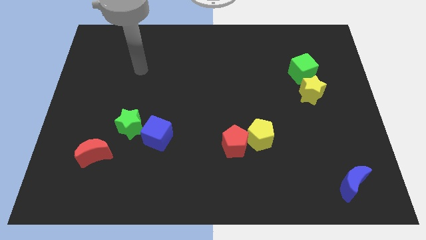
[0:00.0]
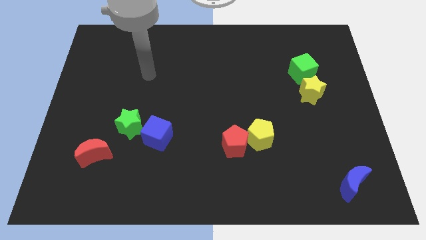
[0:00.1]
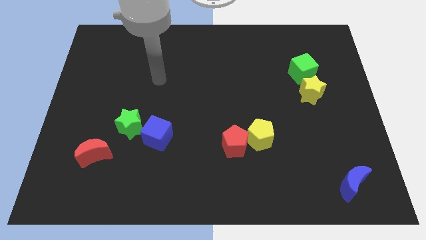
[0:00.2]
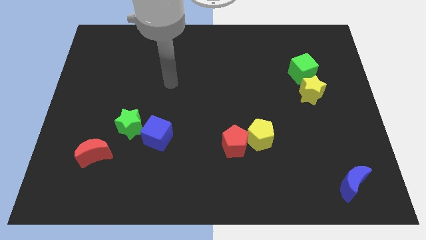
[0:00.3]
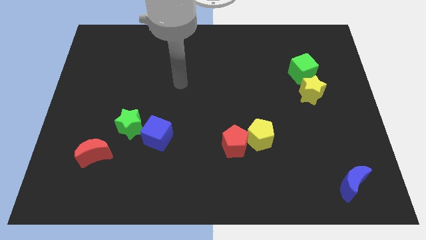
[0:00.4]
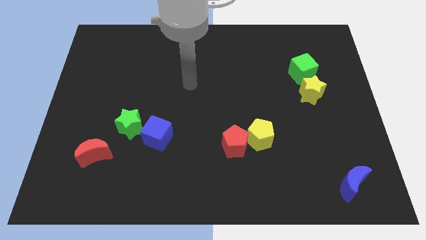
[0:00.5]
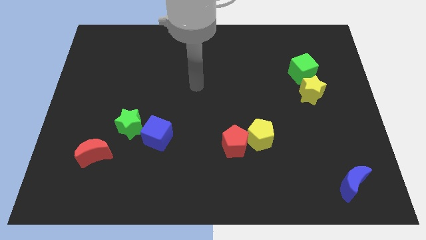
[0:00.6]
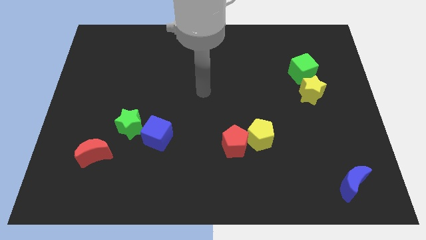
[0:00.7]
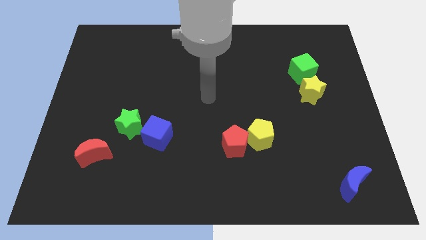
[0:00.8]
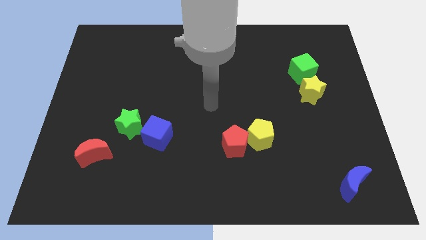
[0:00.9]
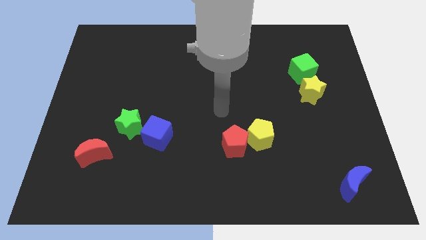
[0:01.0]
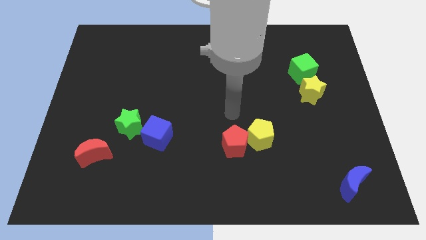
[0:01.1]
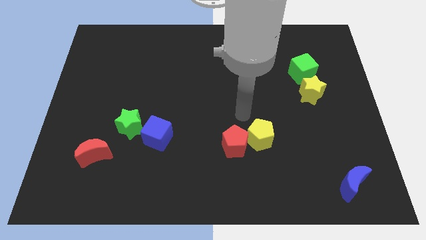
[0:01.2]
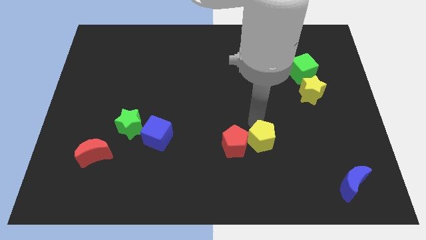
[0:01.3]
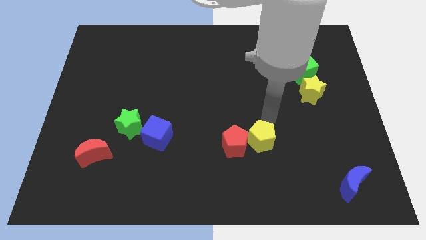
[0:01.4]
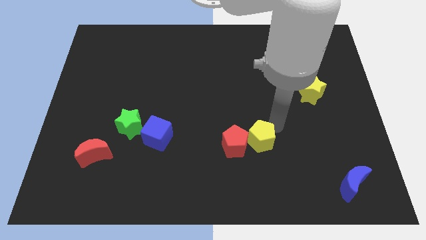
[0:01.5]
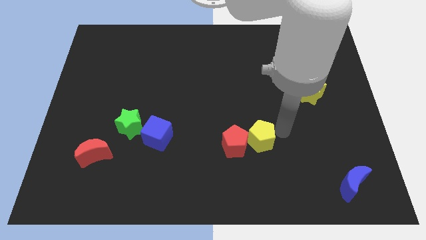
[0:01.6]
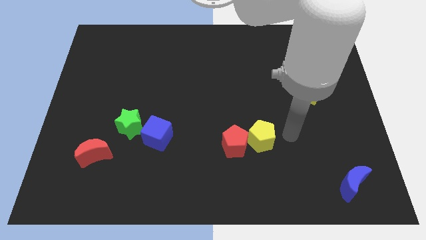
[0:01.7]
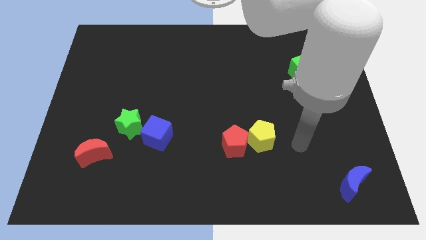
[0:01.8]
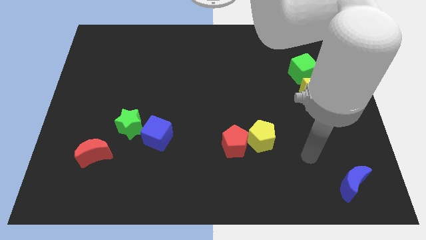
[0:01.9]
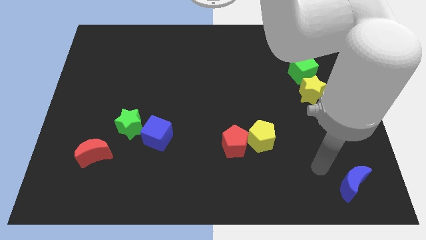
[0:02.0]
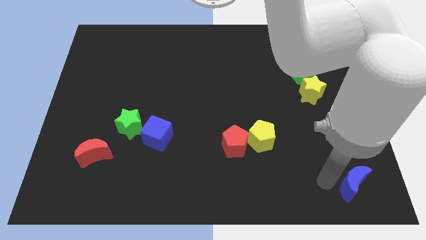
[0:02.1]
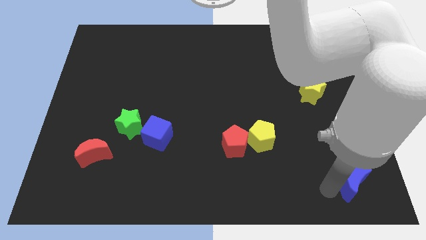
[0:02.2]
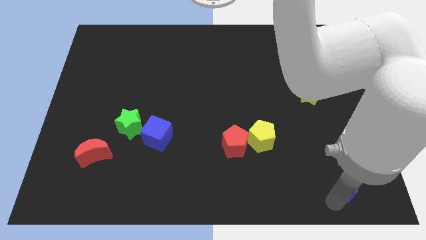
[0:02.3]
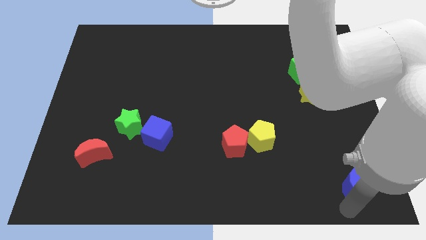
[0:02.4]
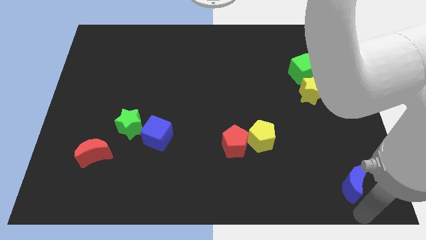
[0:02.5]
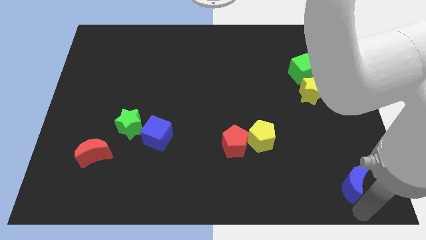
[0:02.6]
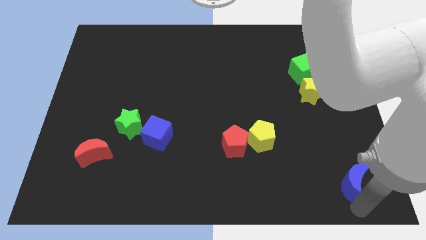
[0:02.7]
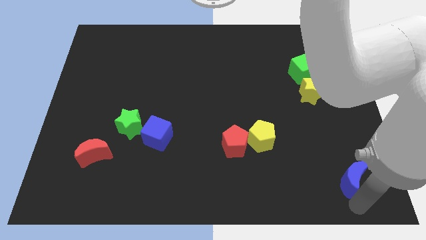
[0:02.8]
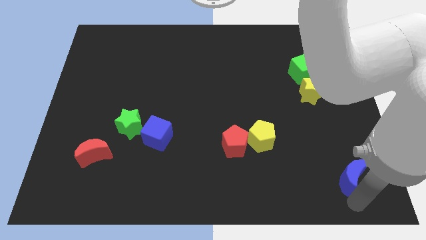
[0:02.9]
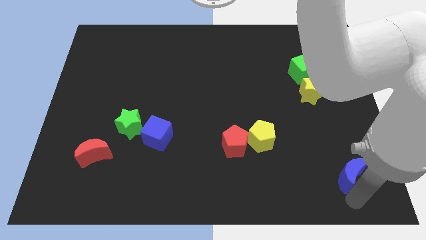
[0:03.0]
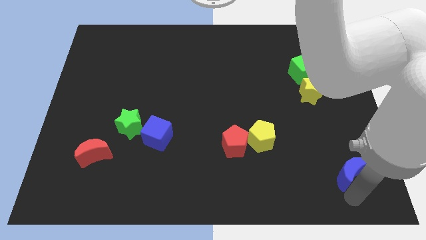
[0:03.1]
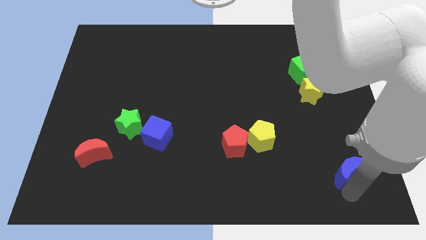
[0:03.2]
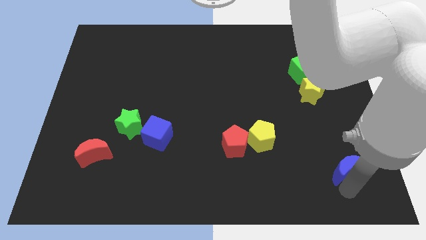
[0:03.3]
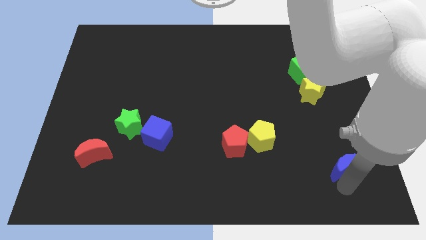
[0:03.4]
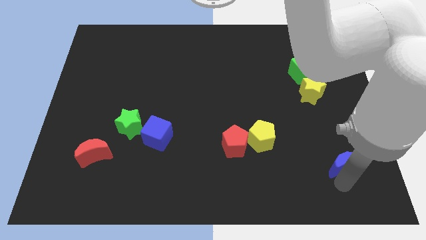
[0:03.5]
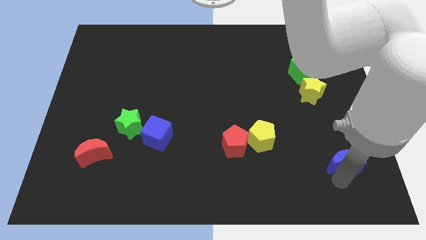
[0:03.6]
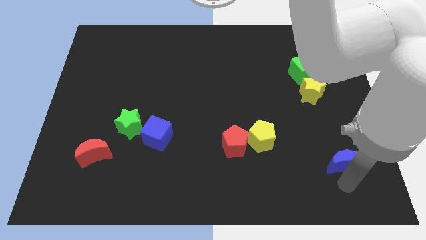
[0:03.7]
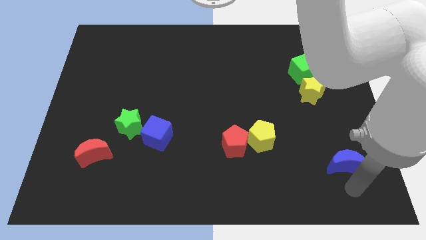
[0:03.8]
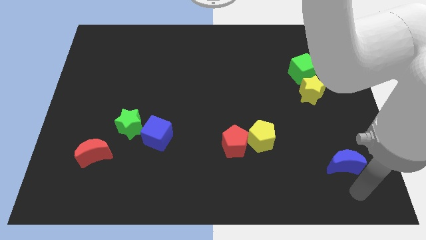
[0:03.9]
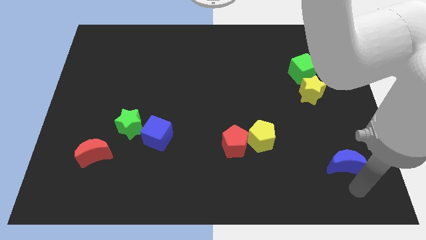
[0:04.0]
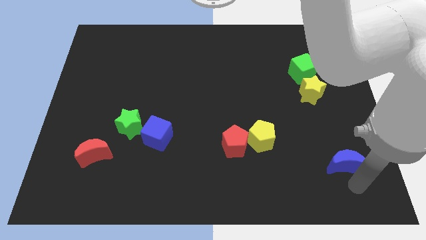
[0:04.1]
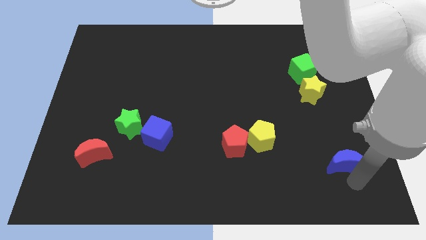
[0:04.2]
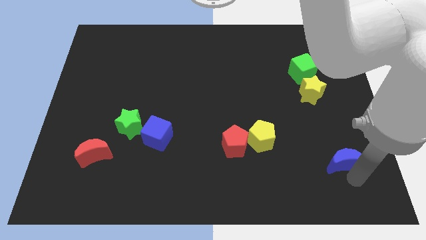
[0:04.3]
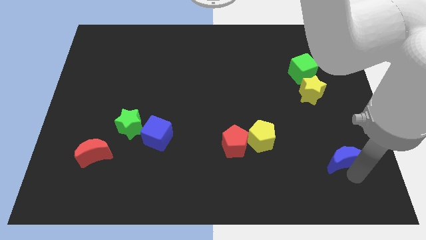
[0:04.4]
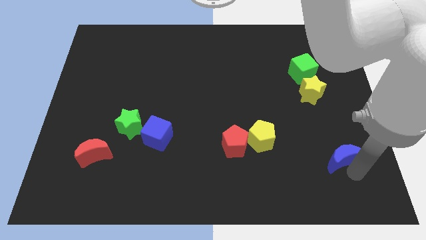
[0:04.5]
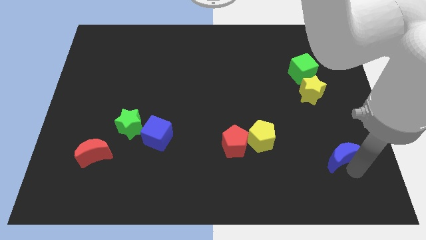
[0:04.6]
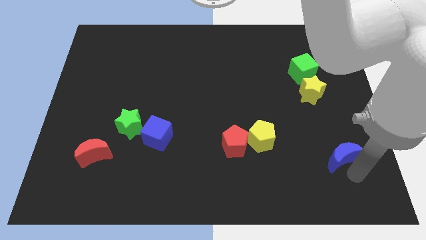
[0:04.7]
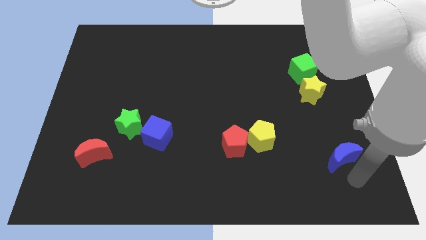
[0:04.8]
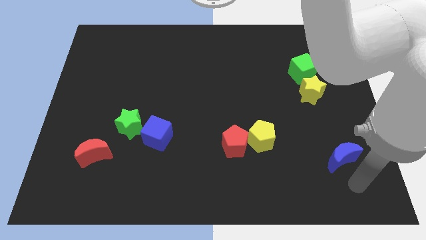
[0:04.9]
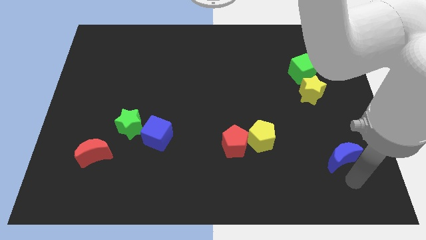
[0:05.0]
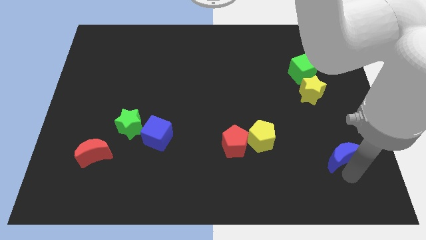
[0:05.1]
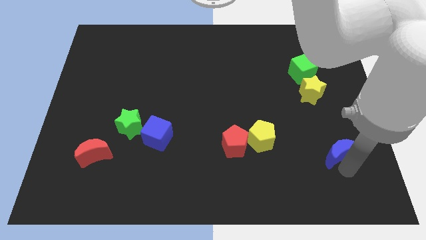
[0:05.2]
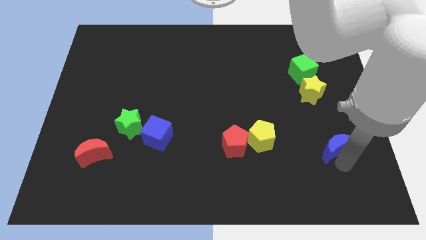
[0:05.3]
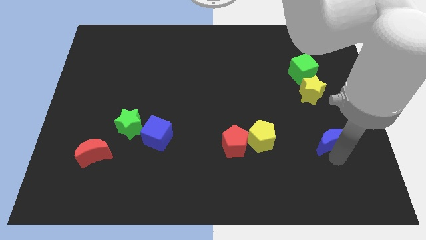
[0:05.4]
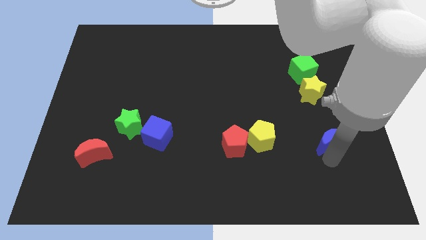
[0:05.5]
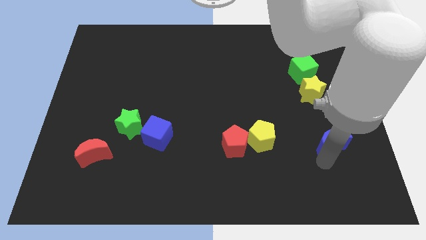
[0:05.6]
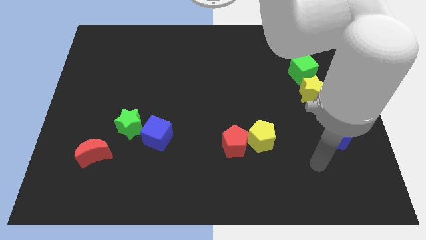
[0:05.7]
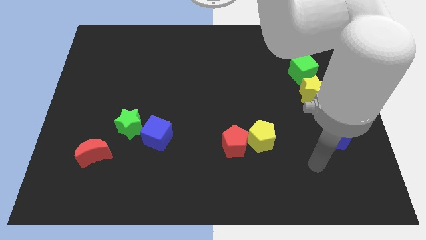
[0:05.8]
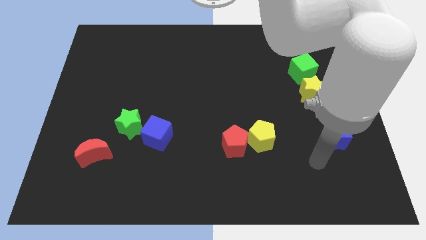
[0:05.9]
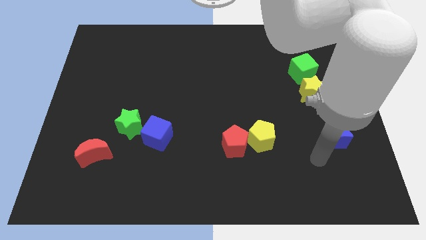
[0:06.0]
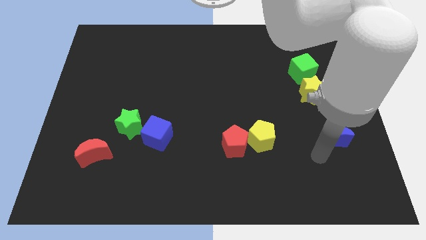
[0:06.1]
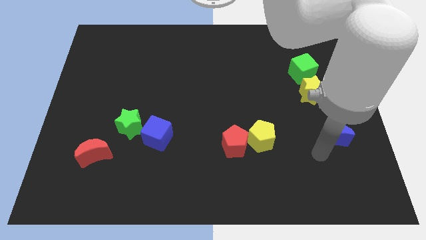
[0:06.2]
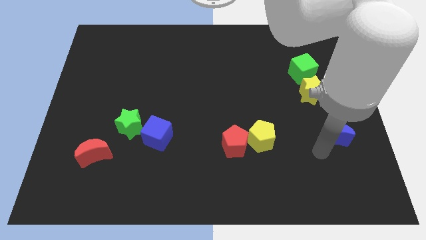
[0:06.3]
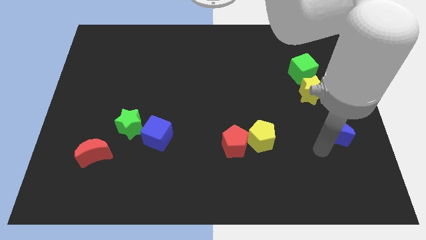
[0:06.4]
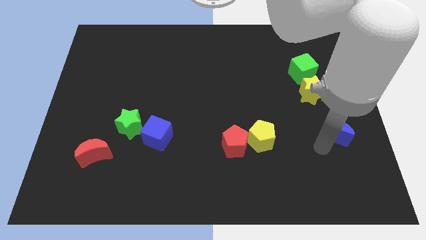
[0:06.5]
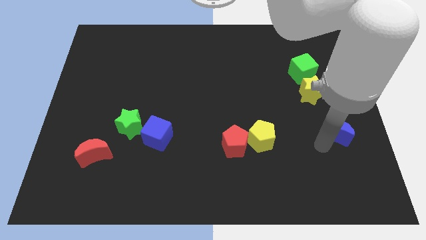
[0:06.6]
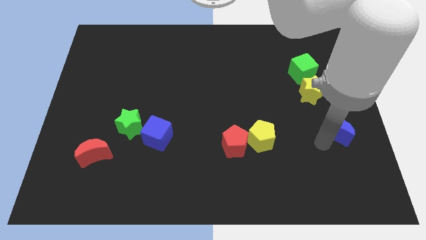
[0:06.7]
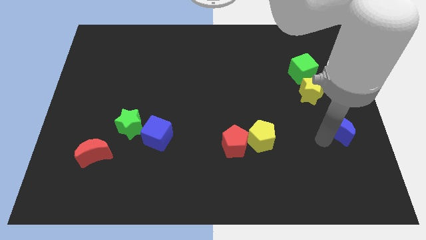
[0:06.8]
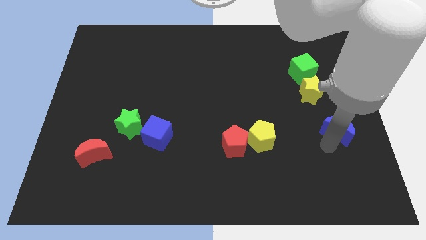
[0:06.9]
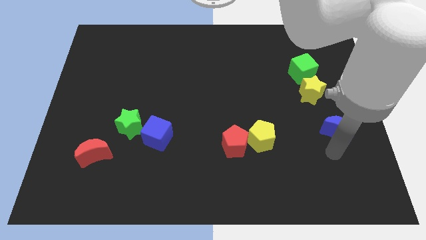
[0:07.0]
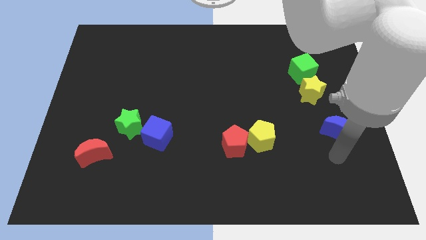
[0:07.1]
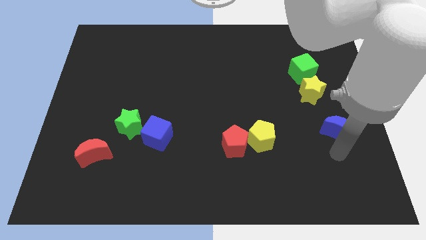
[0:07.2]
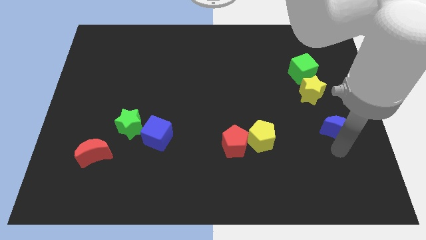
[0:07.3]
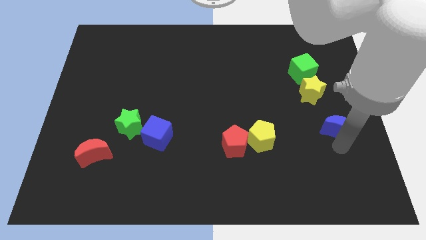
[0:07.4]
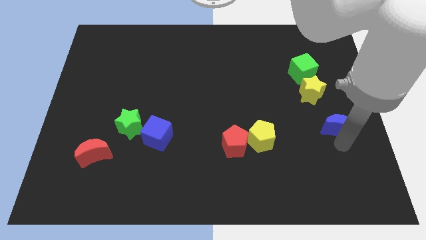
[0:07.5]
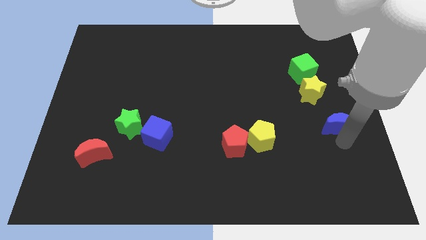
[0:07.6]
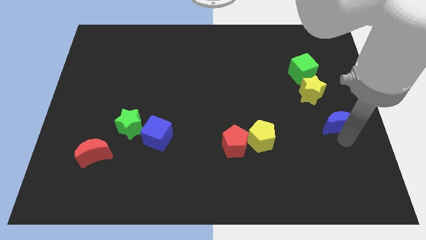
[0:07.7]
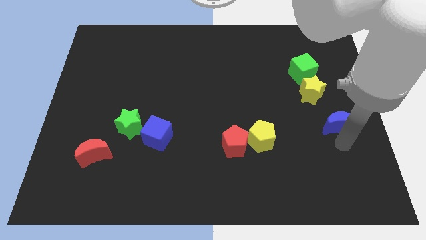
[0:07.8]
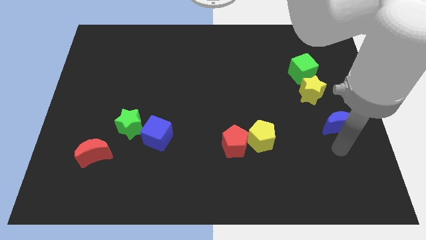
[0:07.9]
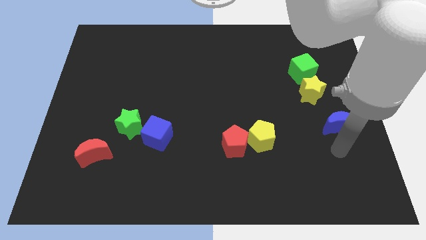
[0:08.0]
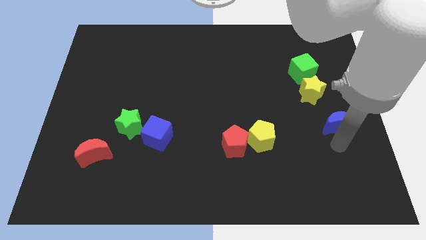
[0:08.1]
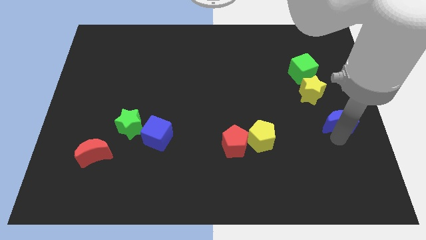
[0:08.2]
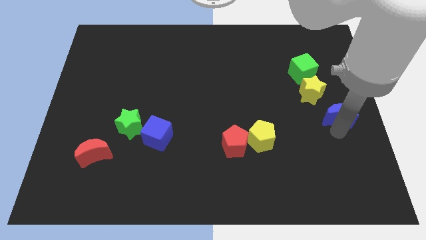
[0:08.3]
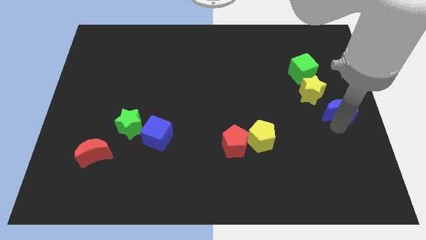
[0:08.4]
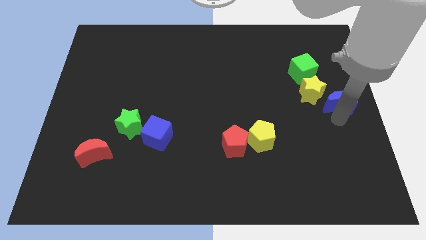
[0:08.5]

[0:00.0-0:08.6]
slide the blue moon up
